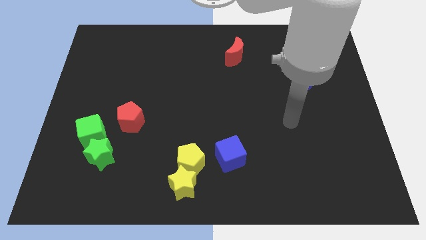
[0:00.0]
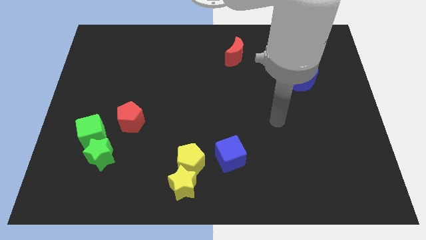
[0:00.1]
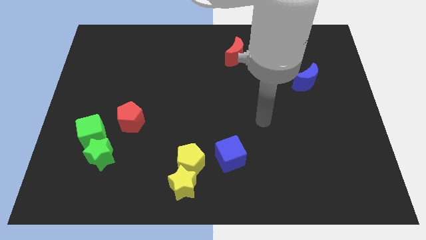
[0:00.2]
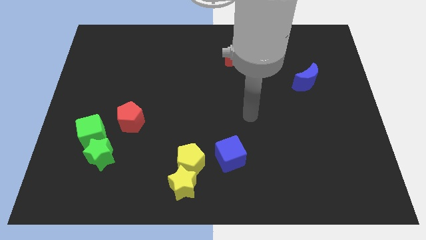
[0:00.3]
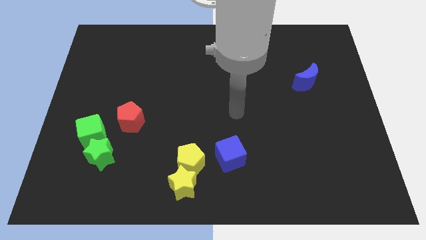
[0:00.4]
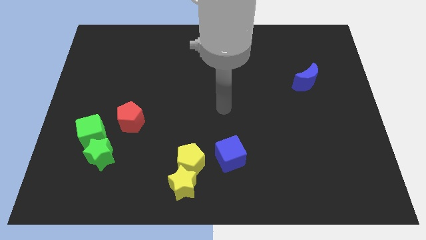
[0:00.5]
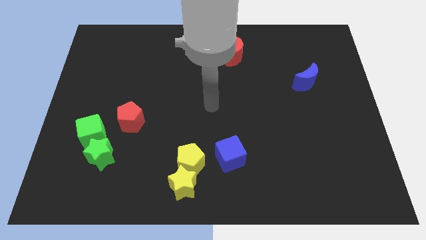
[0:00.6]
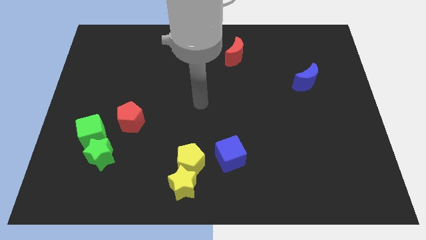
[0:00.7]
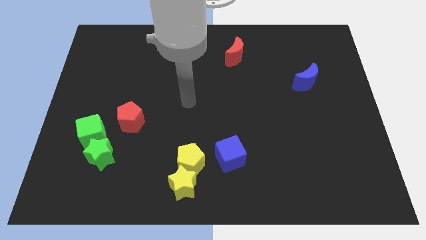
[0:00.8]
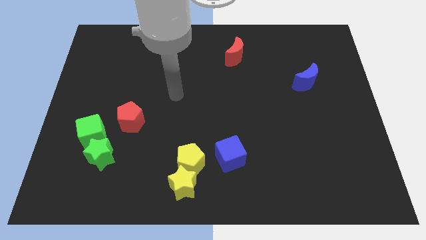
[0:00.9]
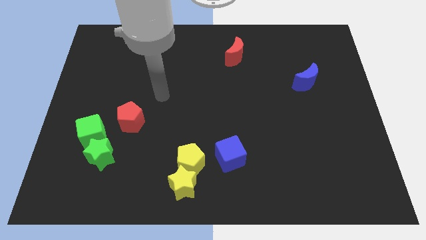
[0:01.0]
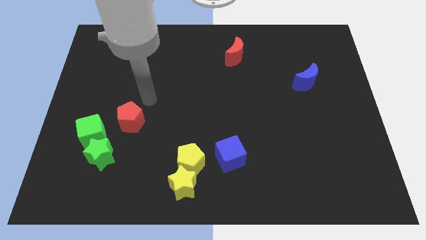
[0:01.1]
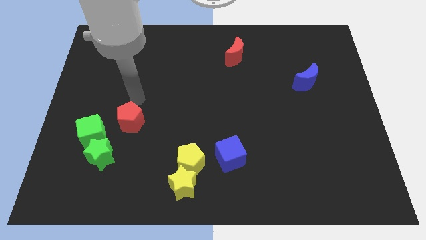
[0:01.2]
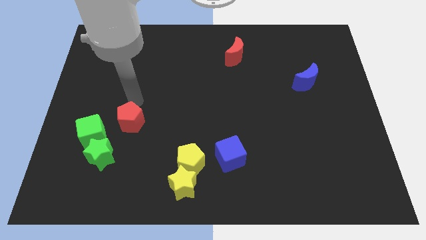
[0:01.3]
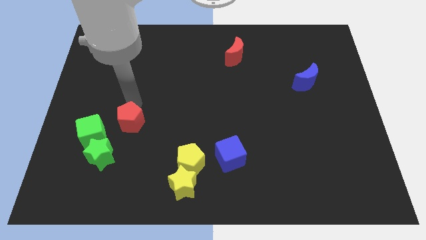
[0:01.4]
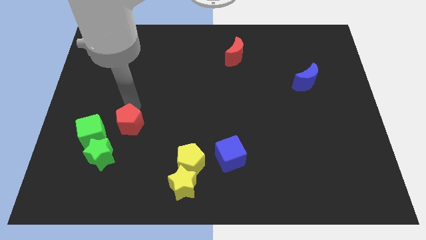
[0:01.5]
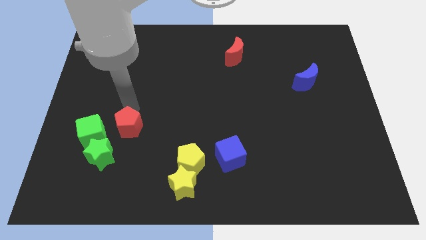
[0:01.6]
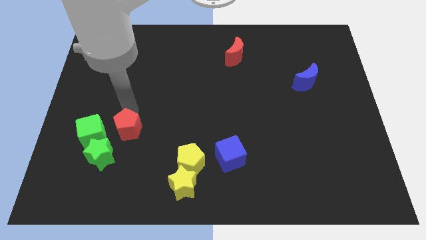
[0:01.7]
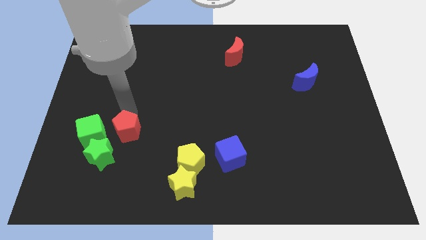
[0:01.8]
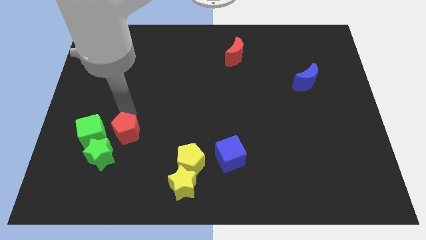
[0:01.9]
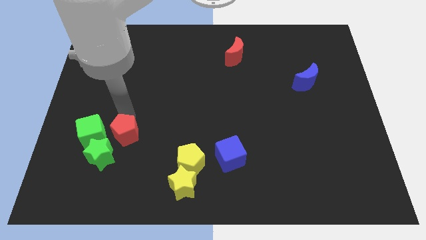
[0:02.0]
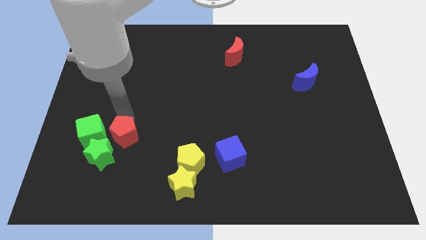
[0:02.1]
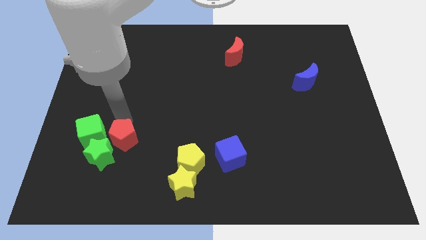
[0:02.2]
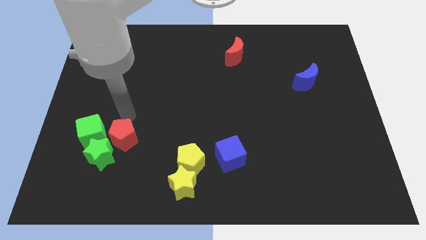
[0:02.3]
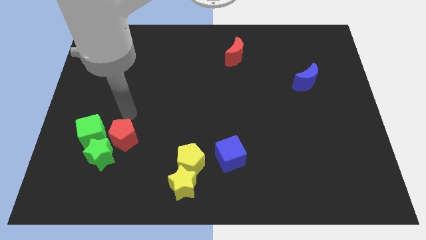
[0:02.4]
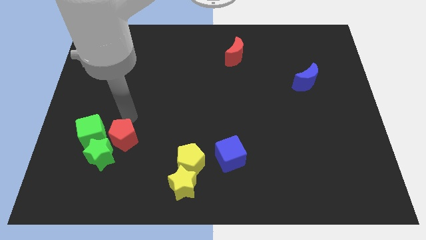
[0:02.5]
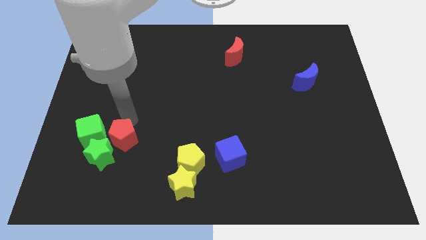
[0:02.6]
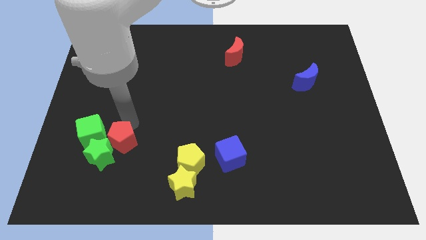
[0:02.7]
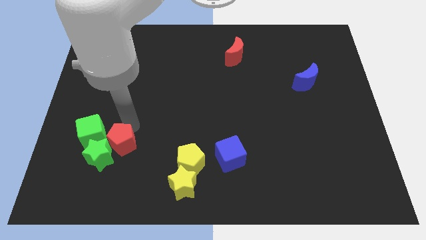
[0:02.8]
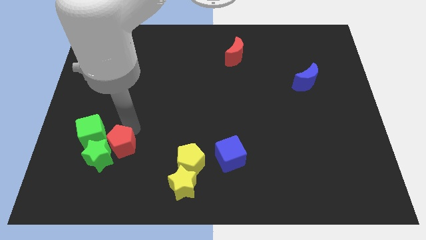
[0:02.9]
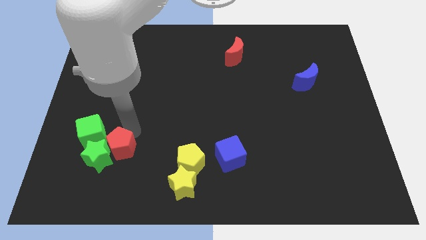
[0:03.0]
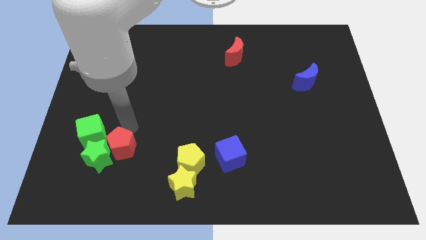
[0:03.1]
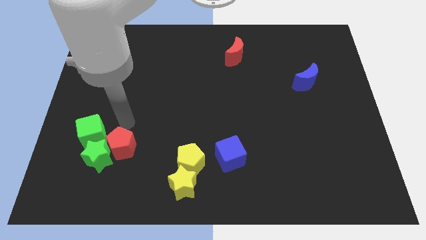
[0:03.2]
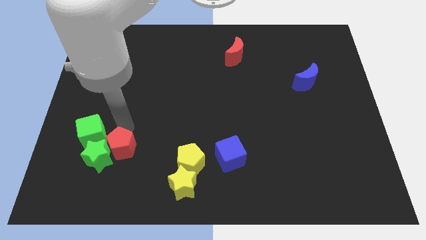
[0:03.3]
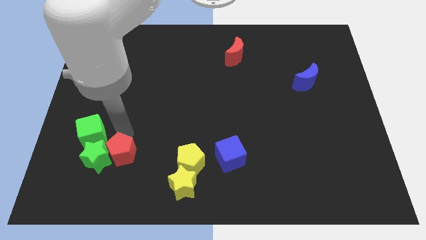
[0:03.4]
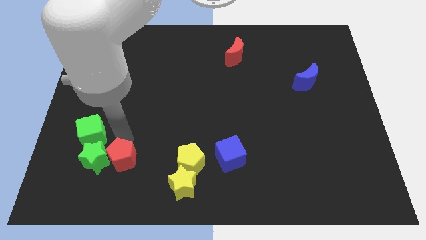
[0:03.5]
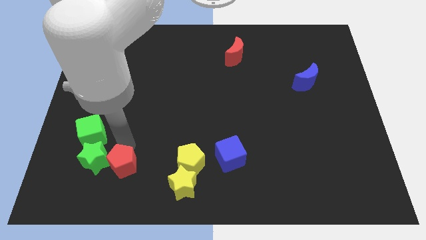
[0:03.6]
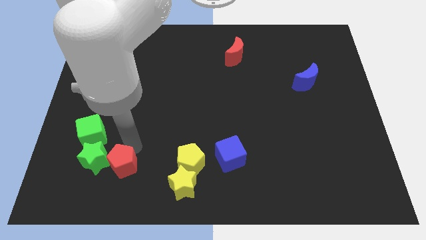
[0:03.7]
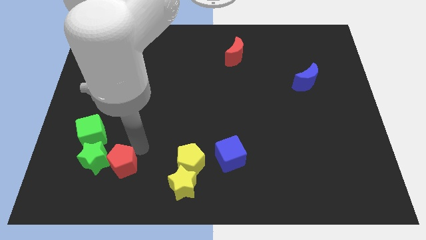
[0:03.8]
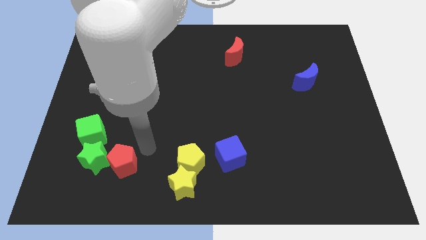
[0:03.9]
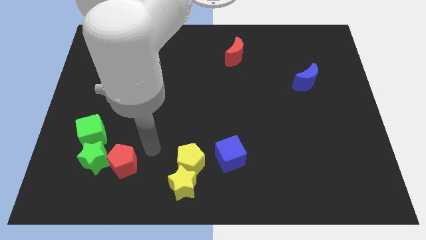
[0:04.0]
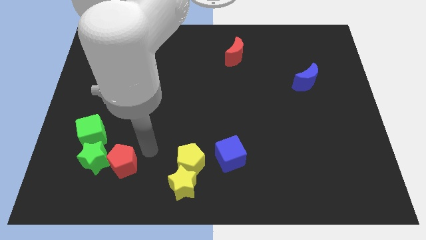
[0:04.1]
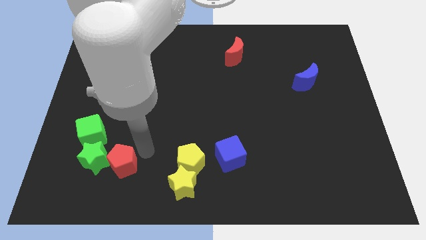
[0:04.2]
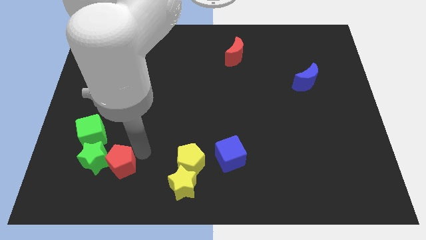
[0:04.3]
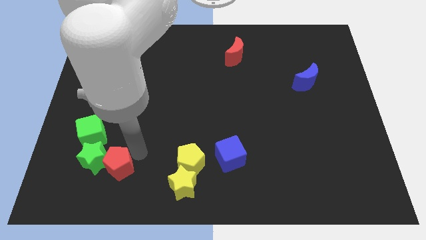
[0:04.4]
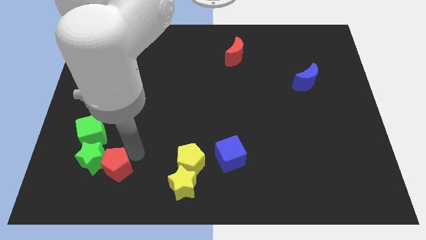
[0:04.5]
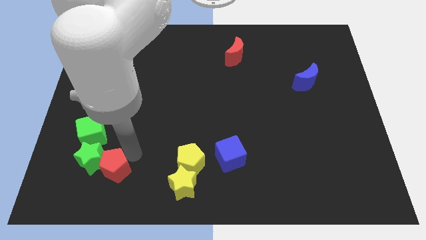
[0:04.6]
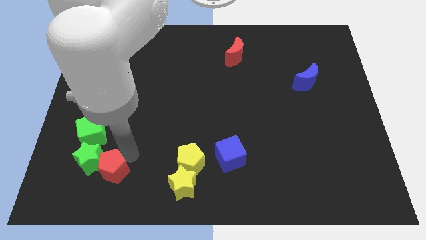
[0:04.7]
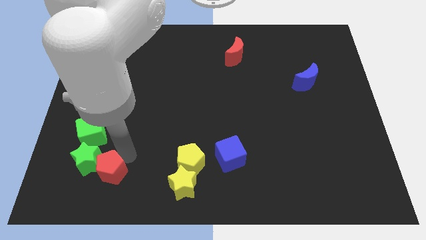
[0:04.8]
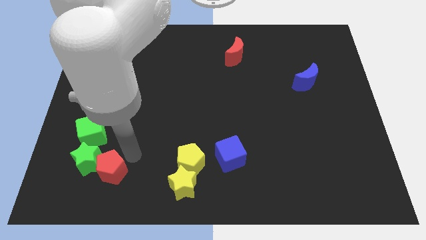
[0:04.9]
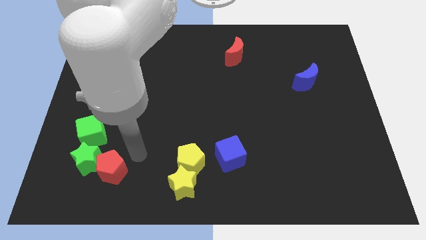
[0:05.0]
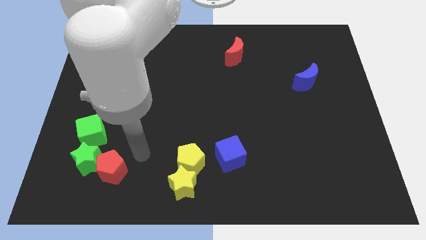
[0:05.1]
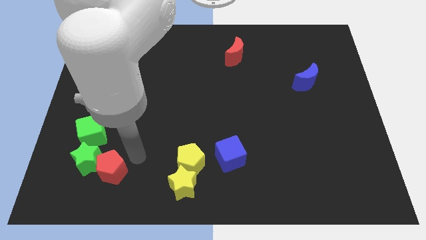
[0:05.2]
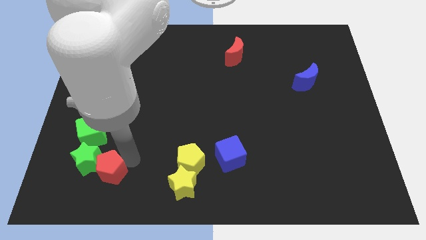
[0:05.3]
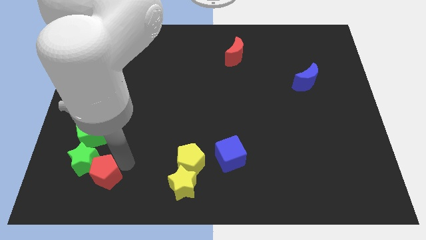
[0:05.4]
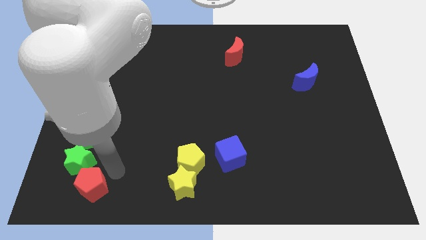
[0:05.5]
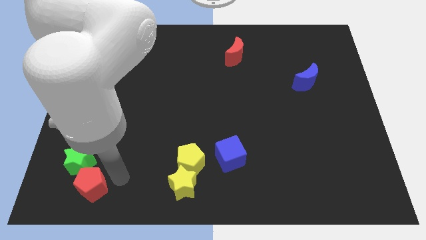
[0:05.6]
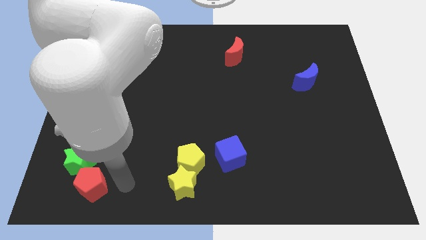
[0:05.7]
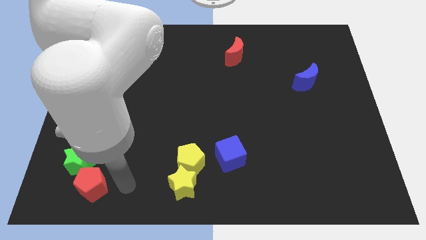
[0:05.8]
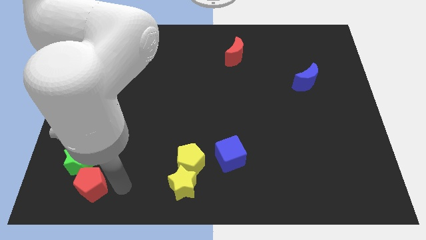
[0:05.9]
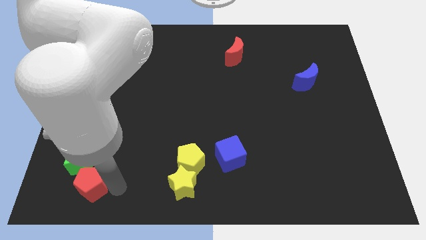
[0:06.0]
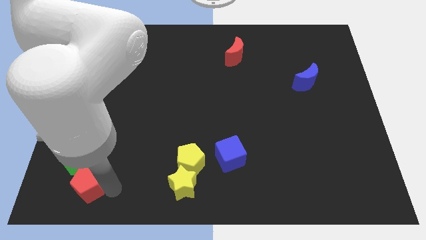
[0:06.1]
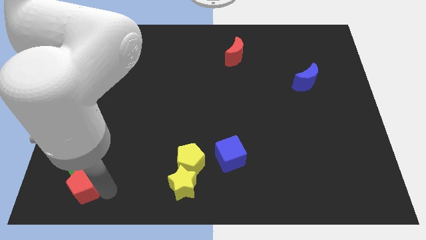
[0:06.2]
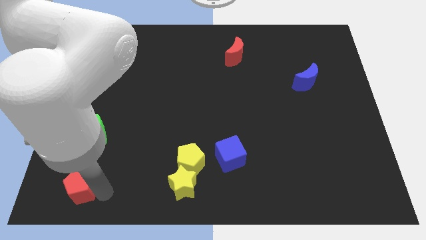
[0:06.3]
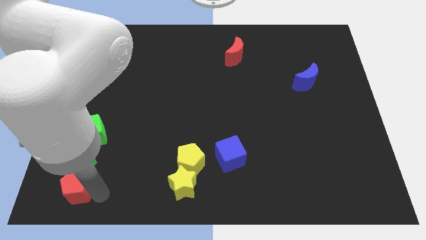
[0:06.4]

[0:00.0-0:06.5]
move the red pentagon to the bottom left of the green star

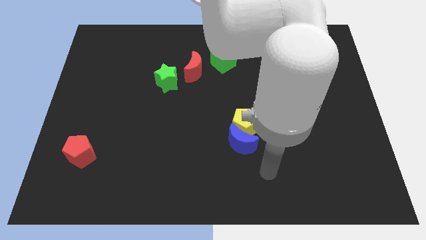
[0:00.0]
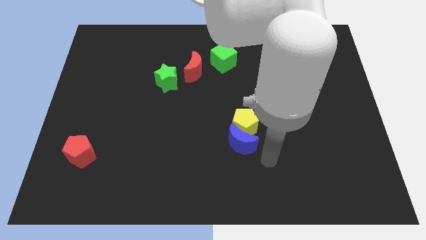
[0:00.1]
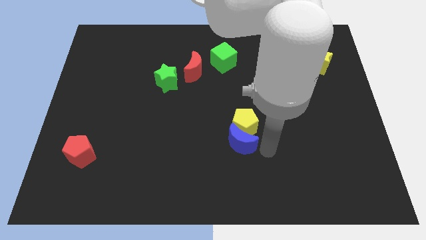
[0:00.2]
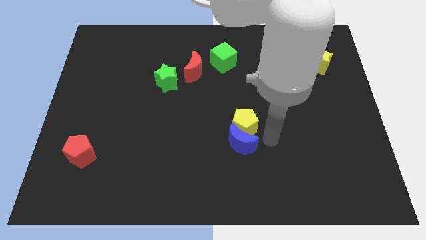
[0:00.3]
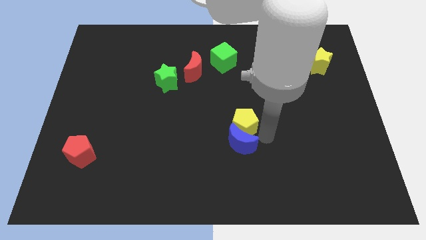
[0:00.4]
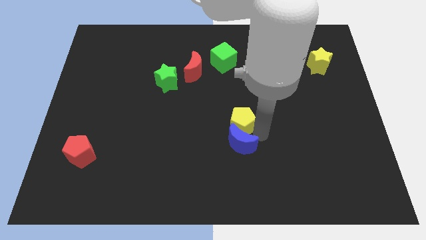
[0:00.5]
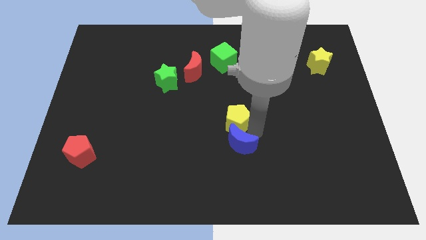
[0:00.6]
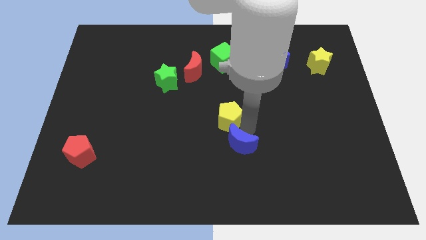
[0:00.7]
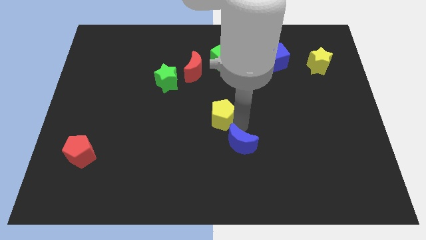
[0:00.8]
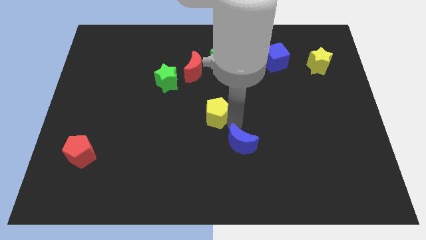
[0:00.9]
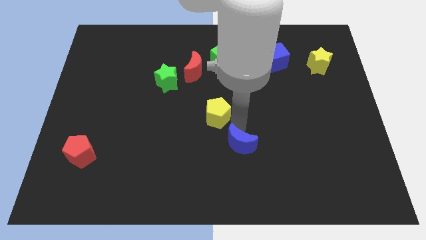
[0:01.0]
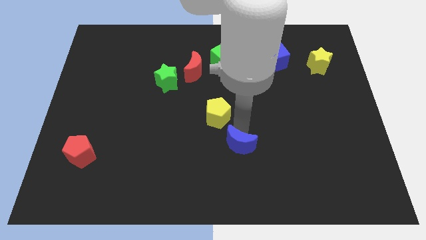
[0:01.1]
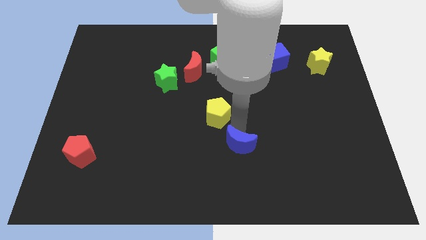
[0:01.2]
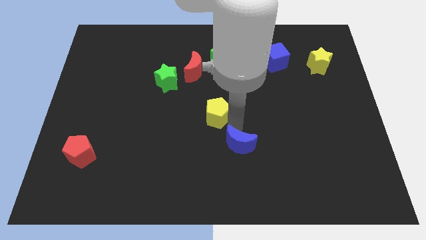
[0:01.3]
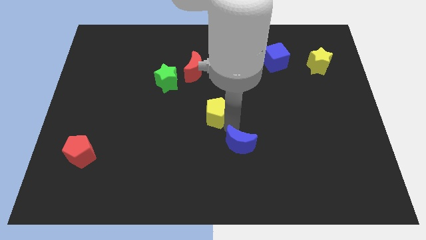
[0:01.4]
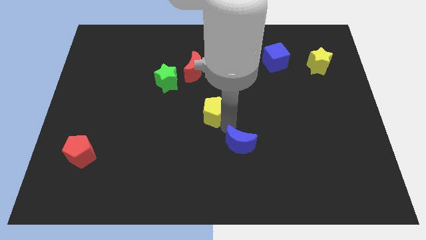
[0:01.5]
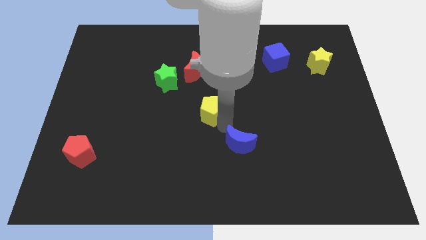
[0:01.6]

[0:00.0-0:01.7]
slide the yellow pentagon to the bottom of the red moon
